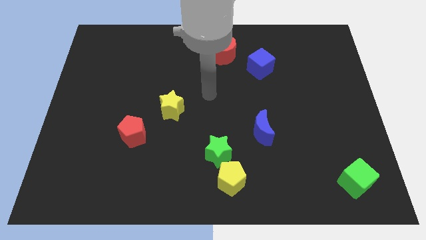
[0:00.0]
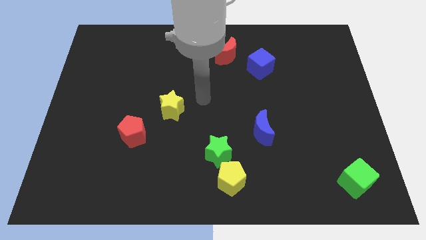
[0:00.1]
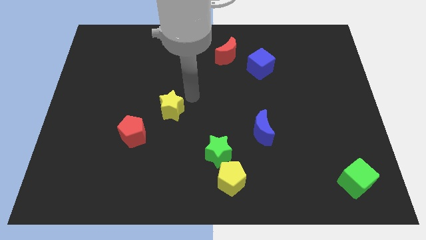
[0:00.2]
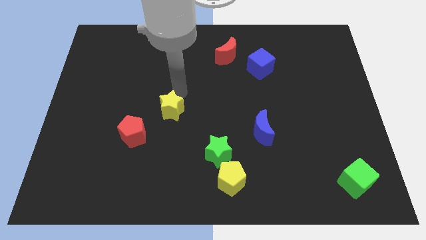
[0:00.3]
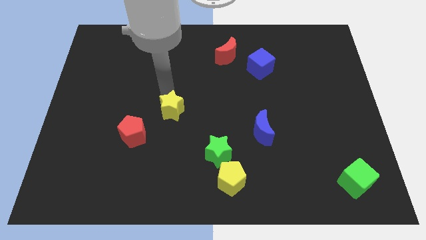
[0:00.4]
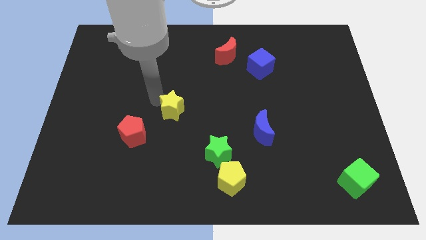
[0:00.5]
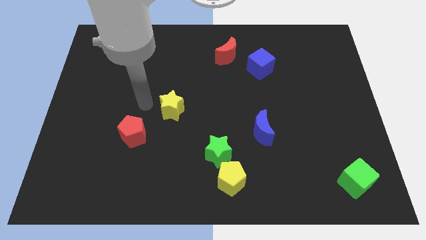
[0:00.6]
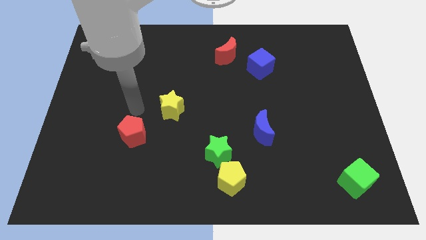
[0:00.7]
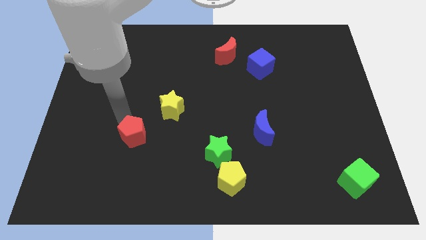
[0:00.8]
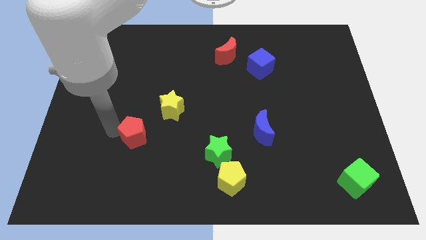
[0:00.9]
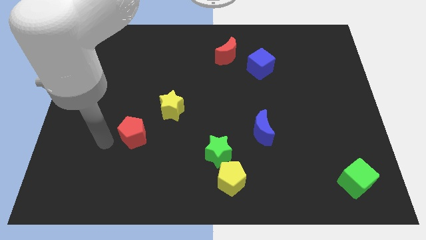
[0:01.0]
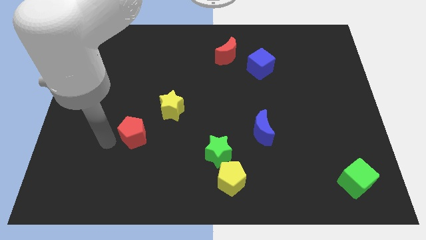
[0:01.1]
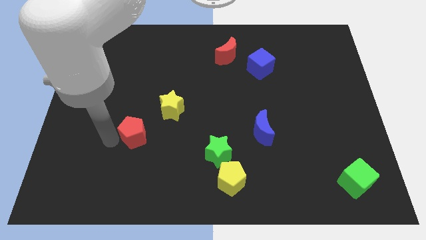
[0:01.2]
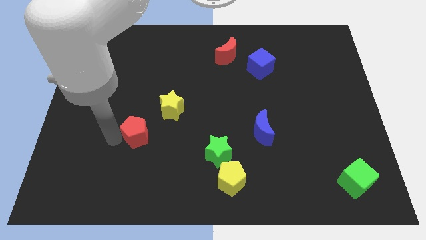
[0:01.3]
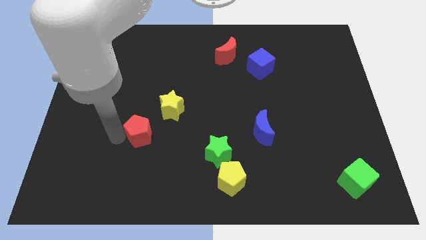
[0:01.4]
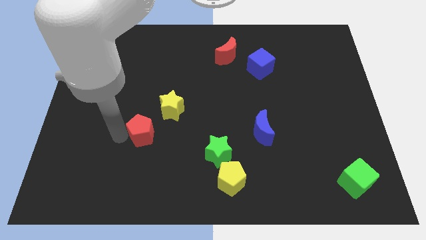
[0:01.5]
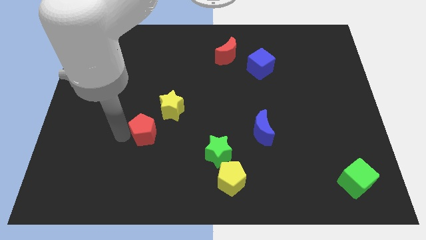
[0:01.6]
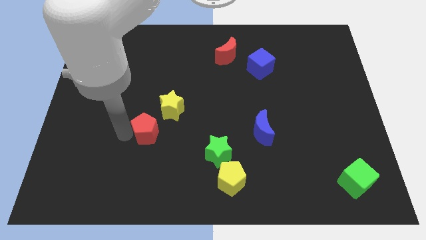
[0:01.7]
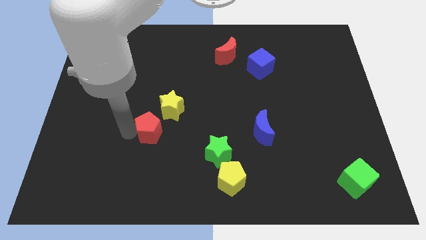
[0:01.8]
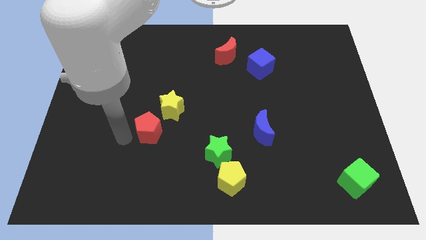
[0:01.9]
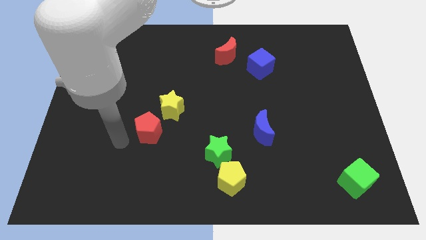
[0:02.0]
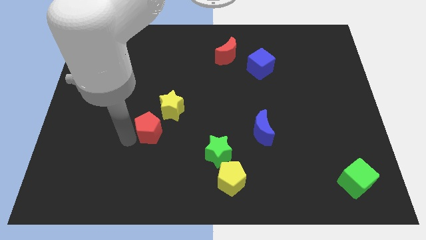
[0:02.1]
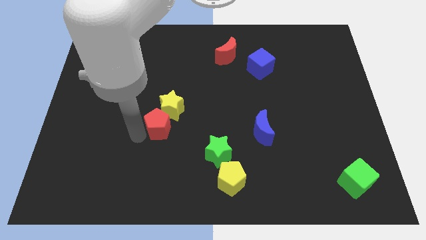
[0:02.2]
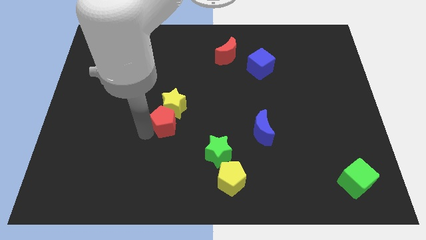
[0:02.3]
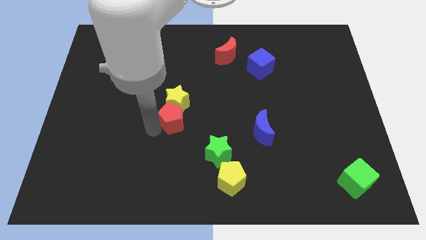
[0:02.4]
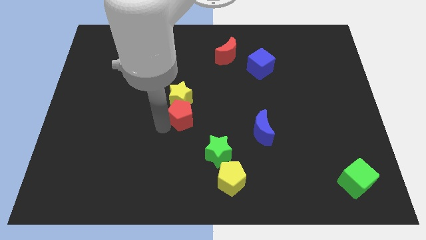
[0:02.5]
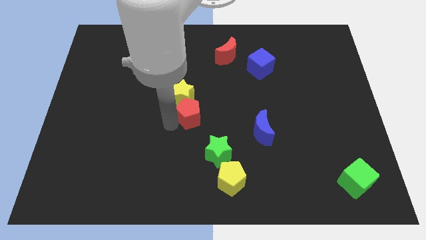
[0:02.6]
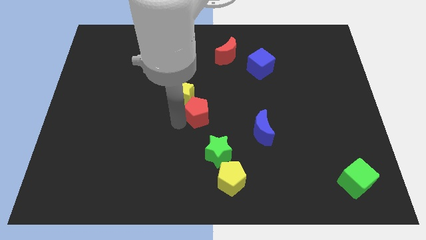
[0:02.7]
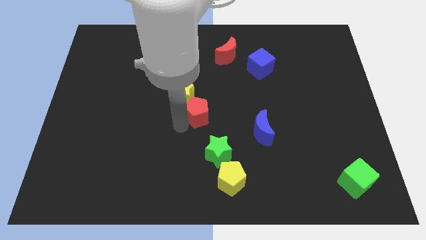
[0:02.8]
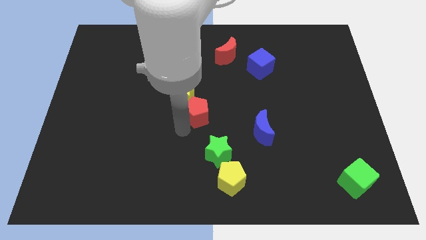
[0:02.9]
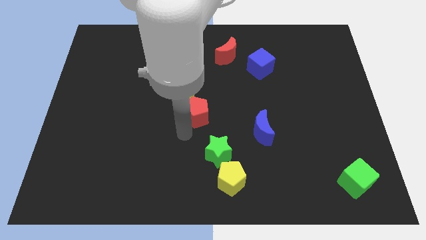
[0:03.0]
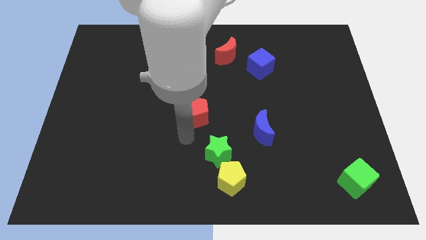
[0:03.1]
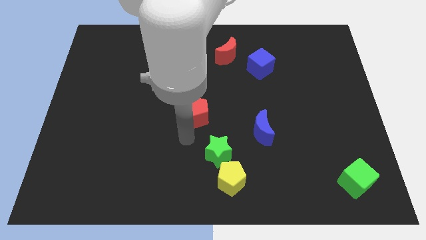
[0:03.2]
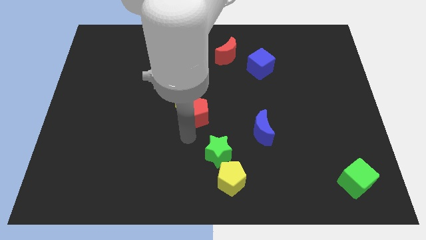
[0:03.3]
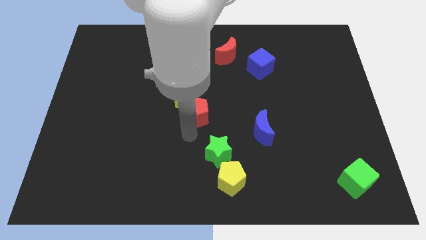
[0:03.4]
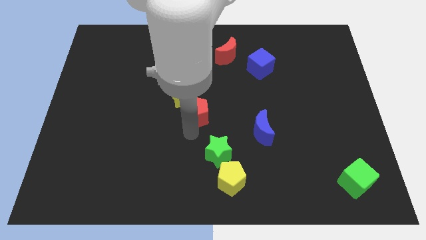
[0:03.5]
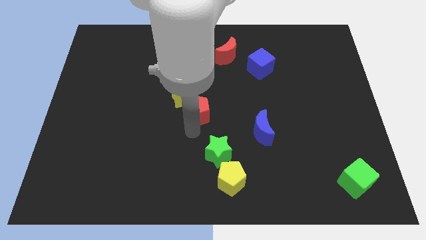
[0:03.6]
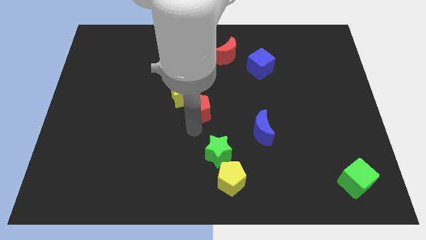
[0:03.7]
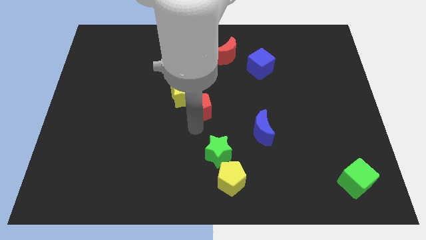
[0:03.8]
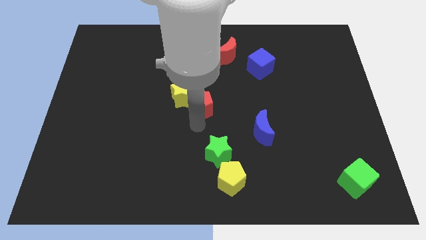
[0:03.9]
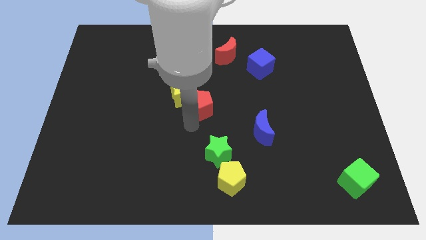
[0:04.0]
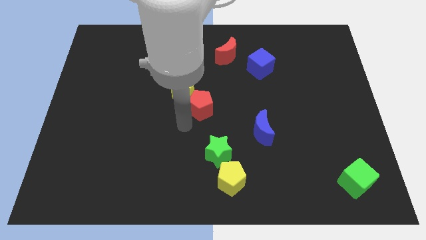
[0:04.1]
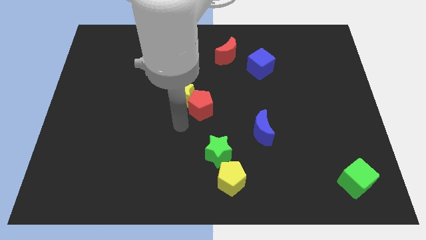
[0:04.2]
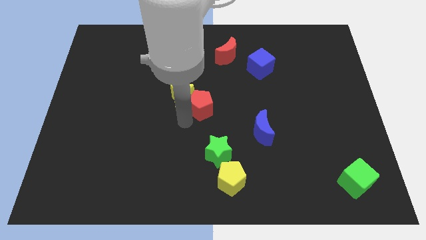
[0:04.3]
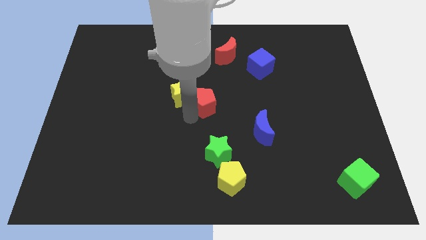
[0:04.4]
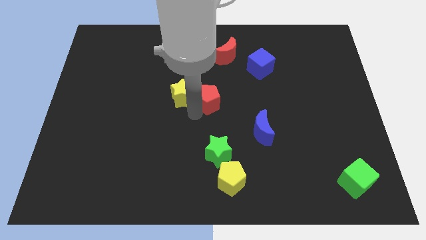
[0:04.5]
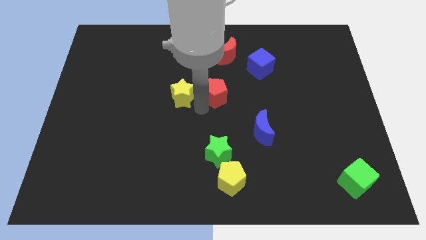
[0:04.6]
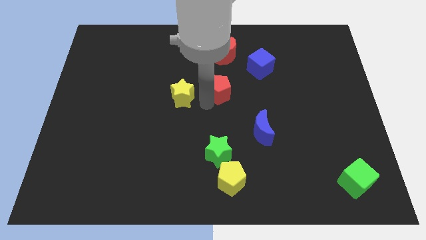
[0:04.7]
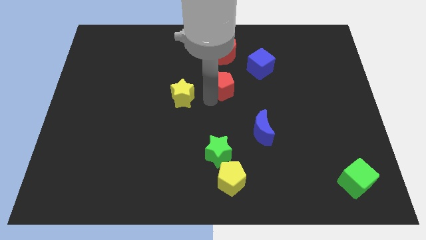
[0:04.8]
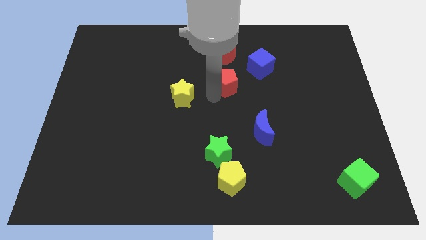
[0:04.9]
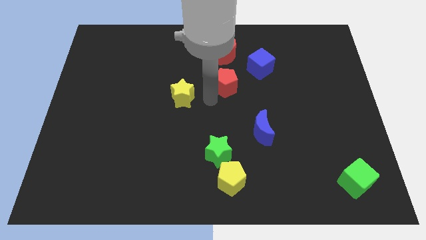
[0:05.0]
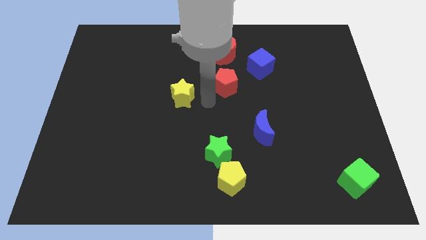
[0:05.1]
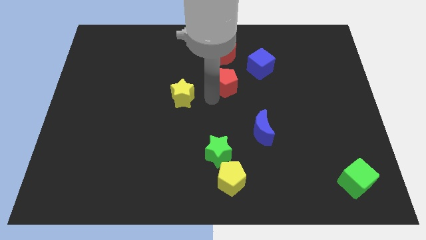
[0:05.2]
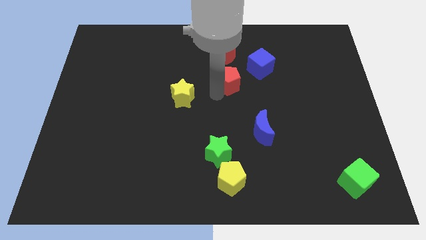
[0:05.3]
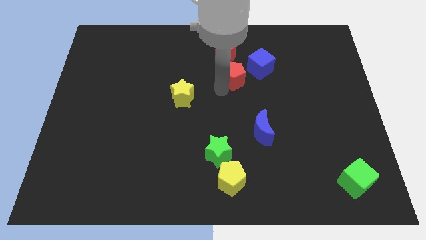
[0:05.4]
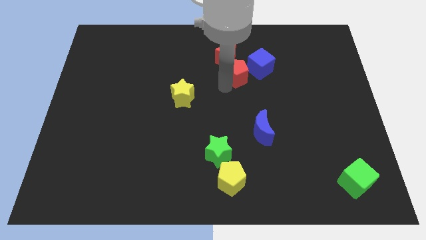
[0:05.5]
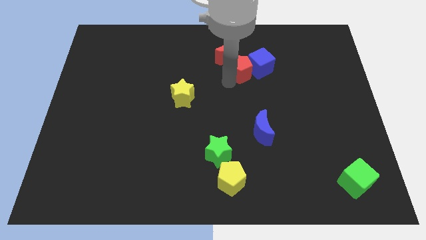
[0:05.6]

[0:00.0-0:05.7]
push the red pentagon towards the blue cube

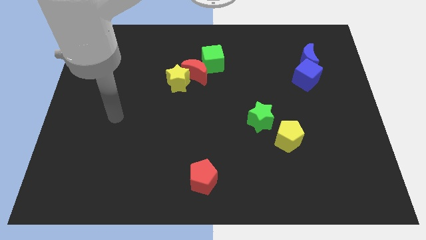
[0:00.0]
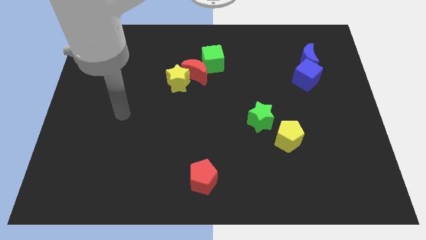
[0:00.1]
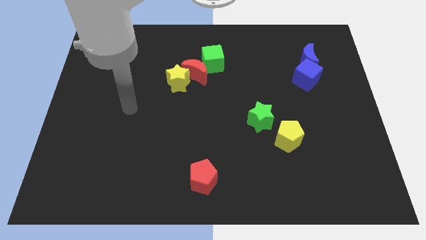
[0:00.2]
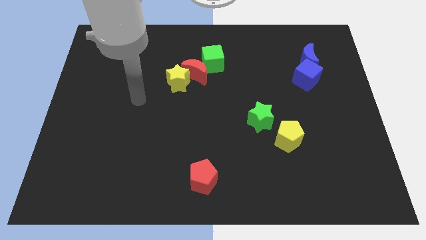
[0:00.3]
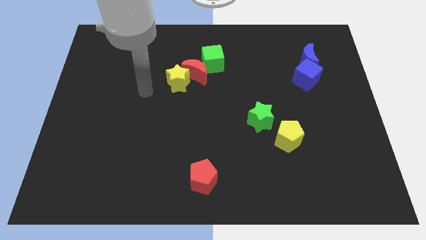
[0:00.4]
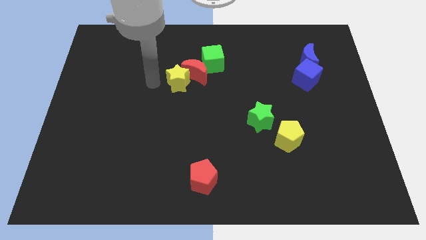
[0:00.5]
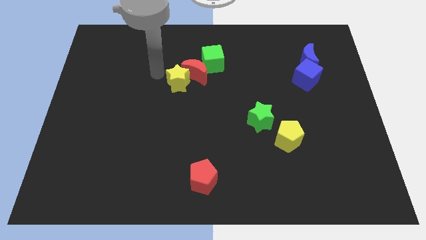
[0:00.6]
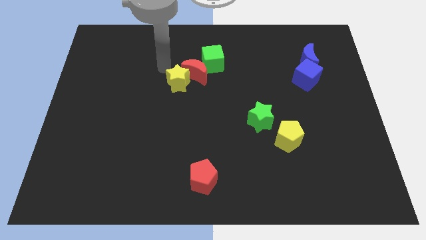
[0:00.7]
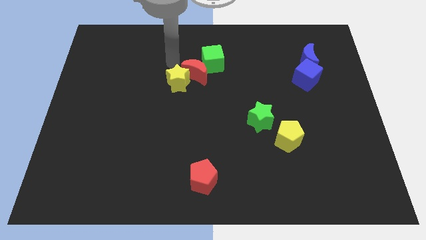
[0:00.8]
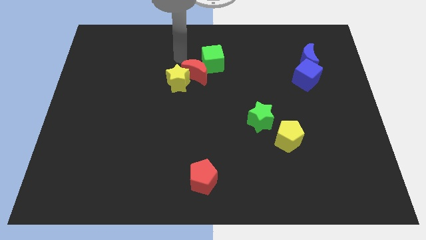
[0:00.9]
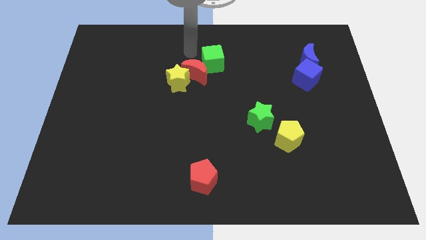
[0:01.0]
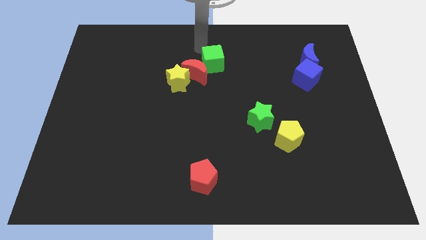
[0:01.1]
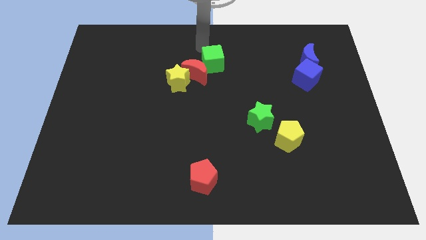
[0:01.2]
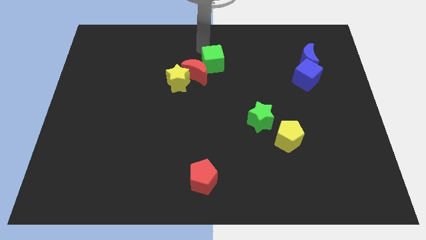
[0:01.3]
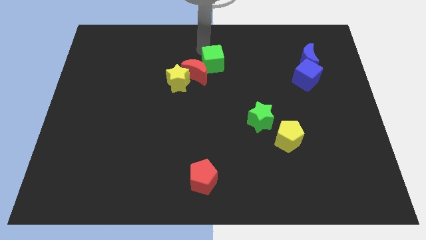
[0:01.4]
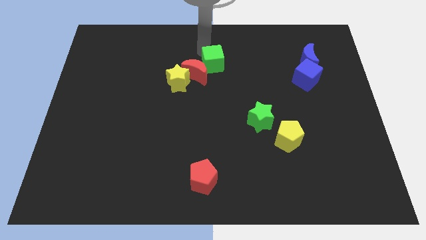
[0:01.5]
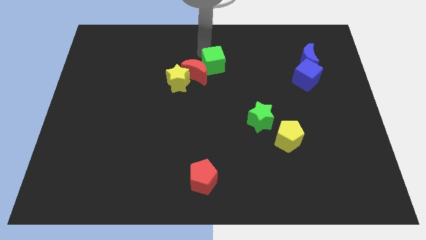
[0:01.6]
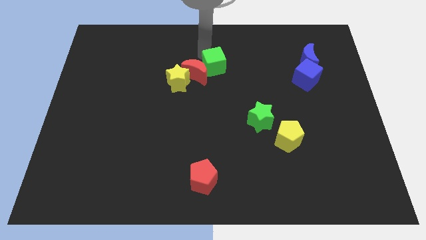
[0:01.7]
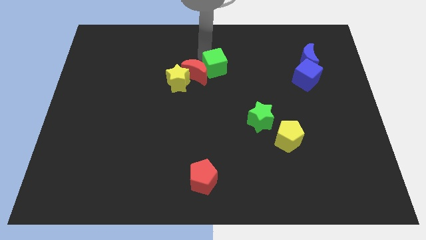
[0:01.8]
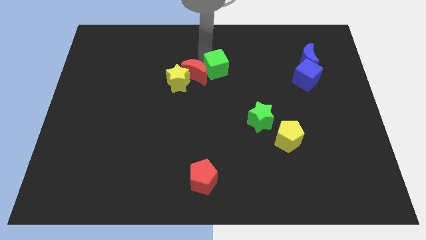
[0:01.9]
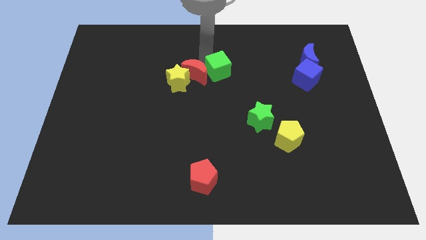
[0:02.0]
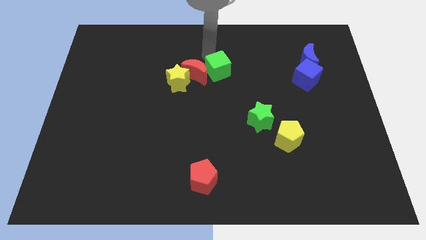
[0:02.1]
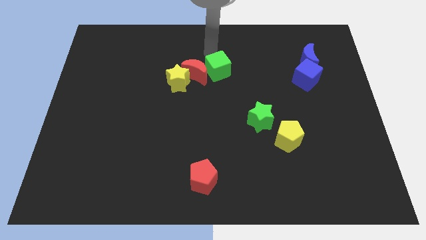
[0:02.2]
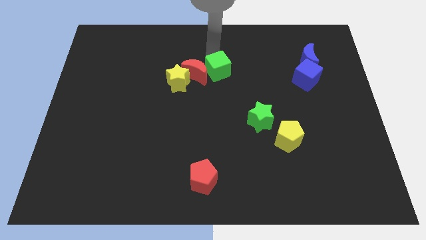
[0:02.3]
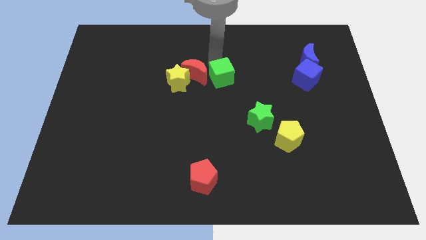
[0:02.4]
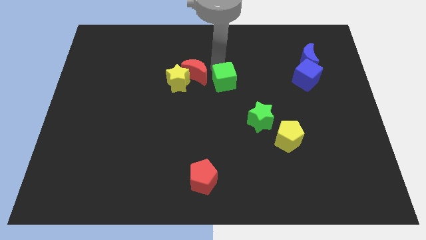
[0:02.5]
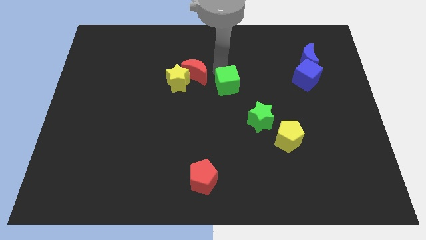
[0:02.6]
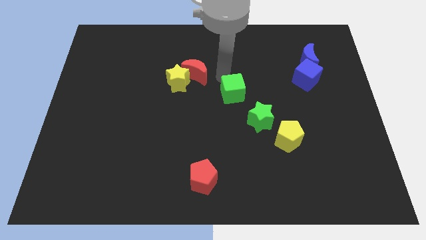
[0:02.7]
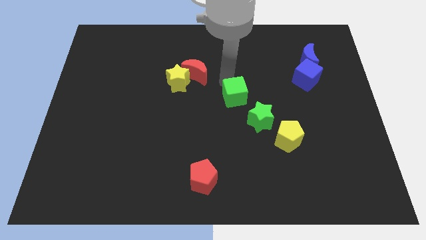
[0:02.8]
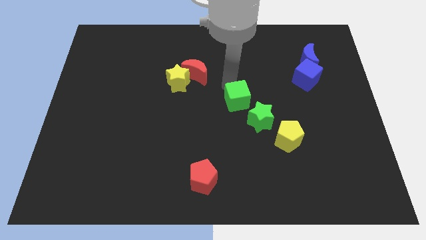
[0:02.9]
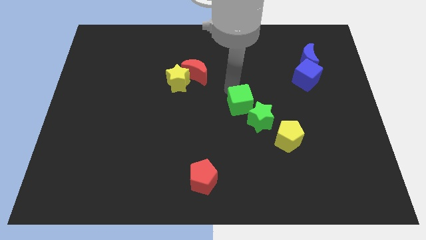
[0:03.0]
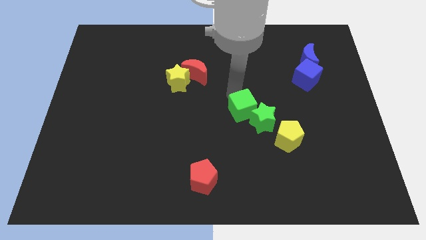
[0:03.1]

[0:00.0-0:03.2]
push the green cube to the green star
